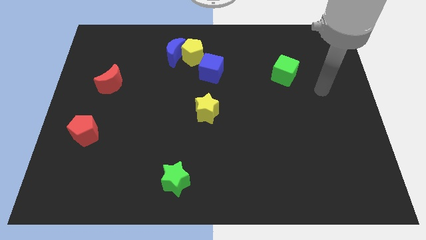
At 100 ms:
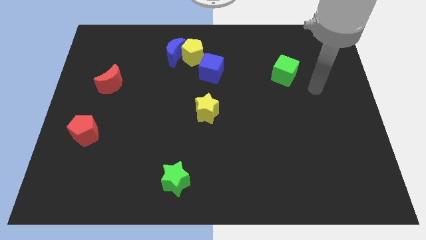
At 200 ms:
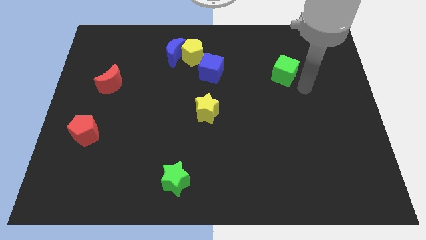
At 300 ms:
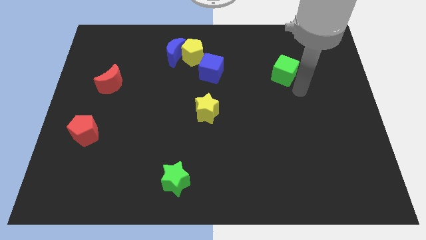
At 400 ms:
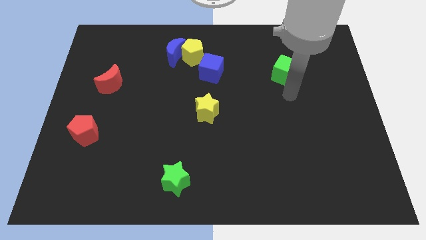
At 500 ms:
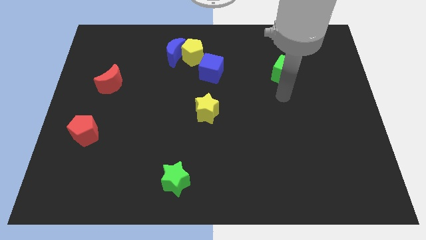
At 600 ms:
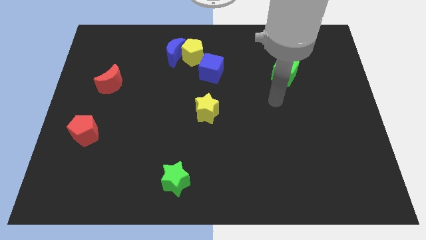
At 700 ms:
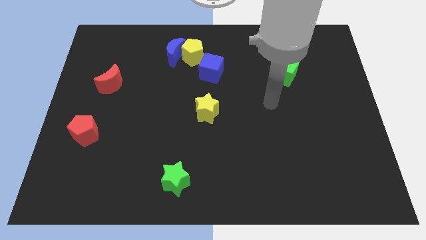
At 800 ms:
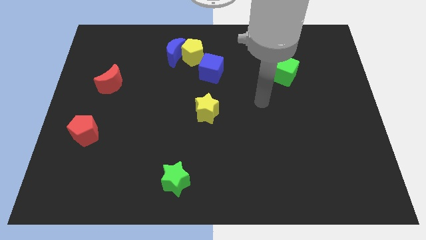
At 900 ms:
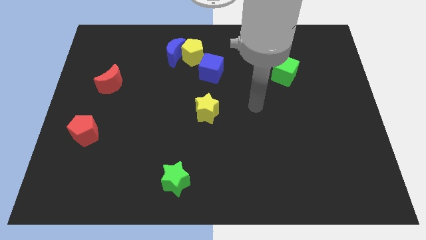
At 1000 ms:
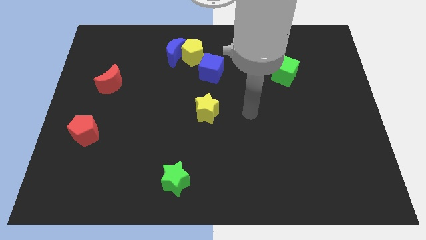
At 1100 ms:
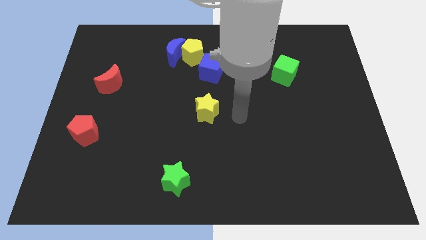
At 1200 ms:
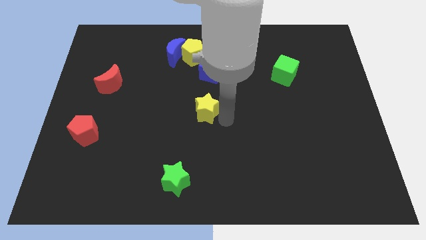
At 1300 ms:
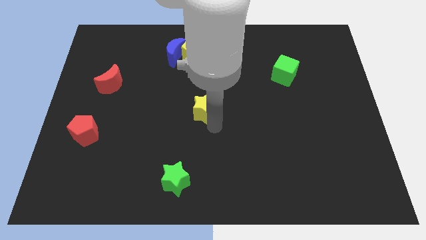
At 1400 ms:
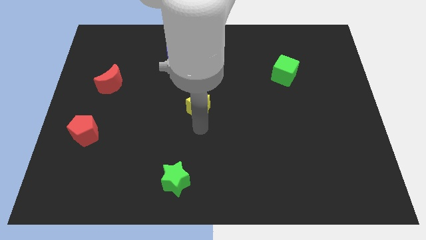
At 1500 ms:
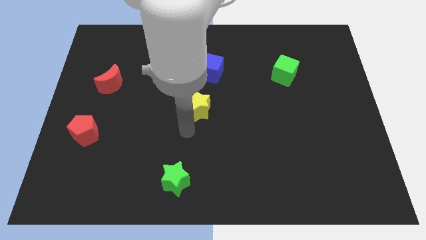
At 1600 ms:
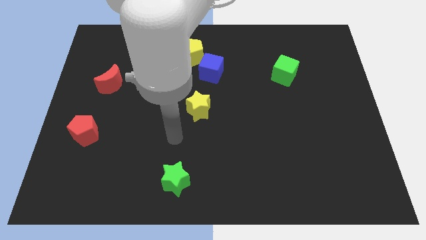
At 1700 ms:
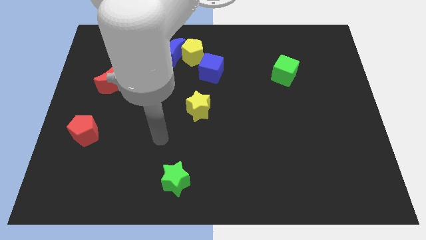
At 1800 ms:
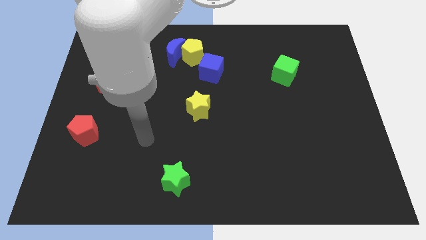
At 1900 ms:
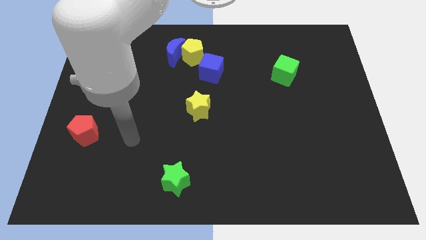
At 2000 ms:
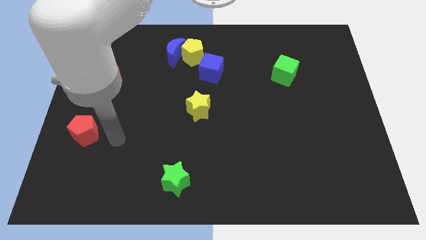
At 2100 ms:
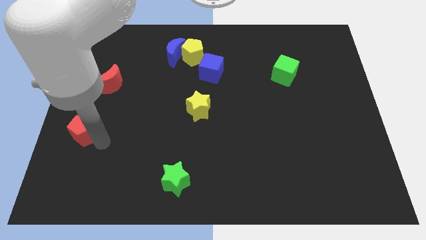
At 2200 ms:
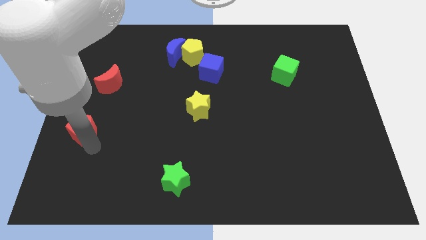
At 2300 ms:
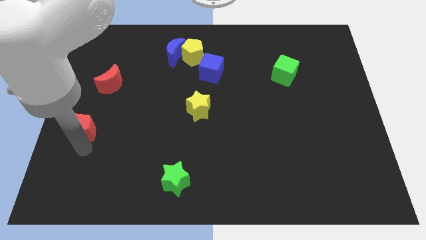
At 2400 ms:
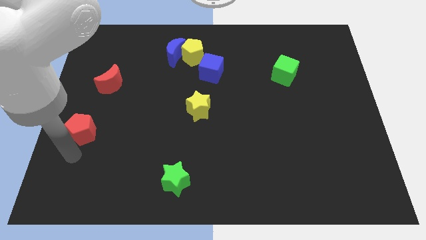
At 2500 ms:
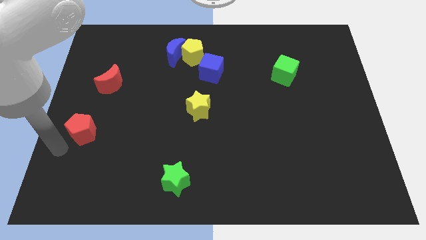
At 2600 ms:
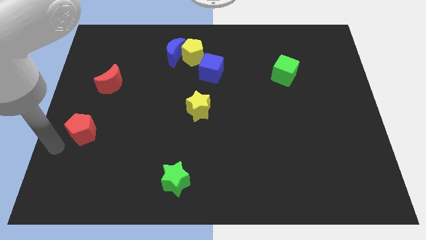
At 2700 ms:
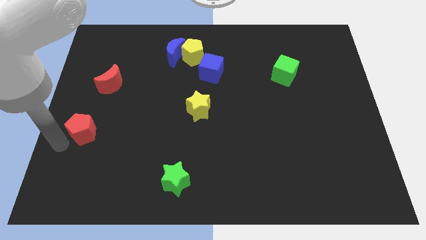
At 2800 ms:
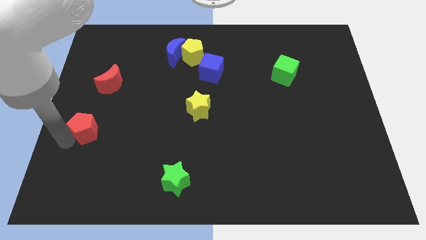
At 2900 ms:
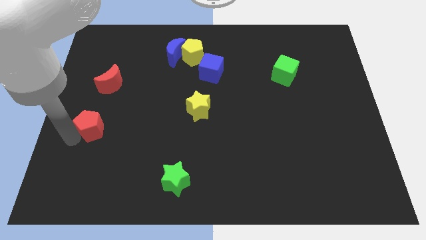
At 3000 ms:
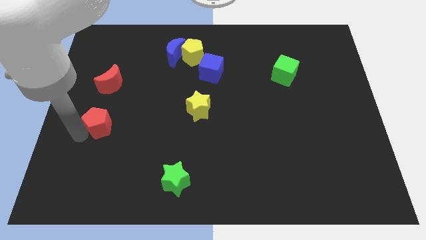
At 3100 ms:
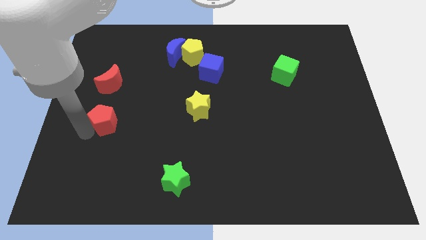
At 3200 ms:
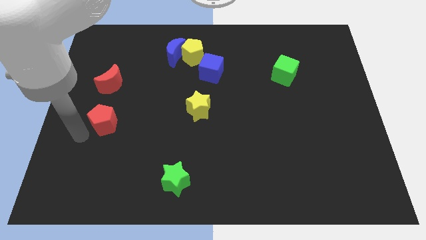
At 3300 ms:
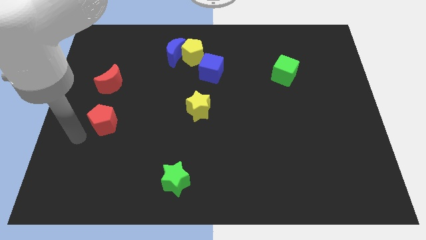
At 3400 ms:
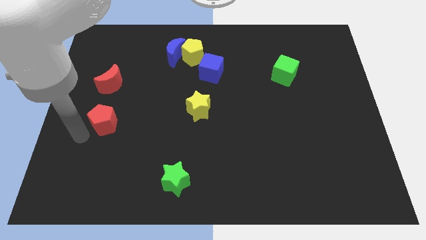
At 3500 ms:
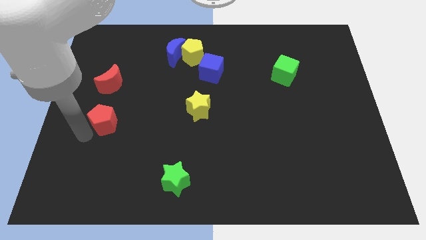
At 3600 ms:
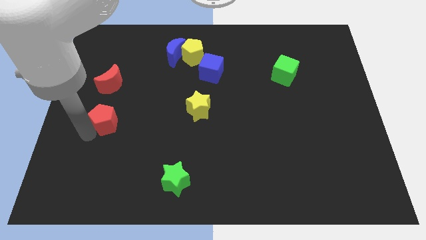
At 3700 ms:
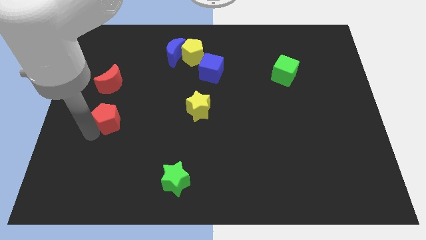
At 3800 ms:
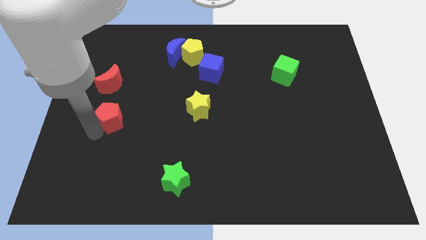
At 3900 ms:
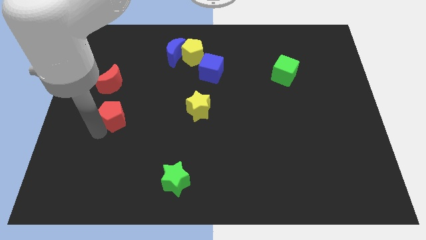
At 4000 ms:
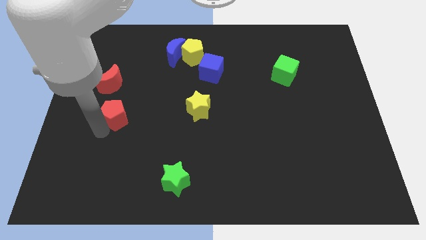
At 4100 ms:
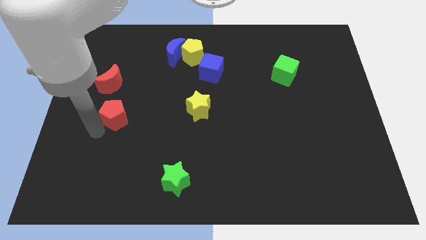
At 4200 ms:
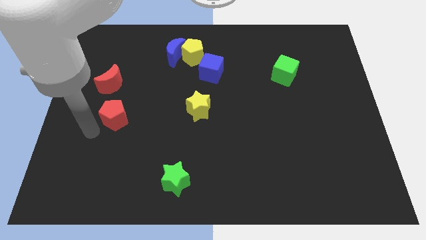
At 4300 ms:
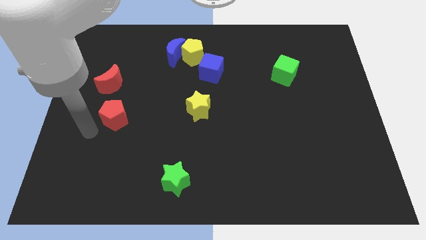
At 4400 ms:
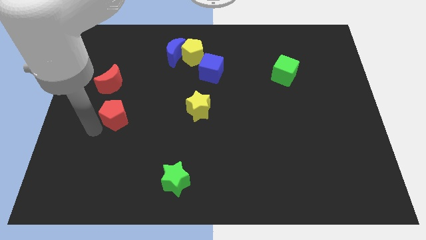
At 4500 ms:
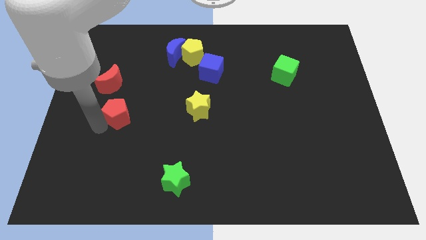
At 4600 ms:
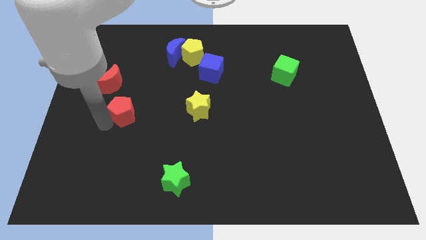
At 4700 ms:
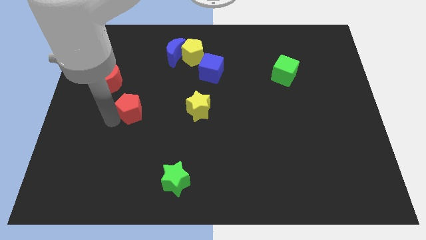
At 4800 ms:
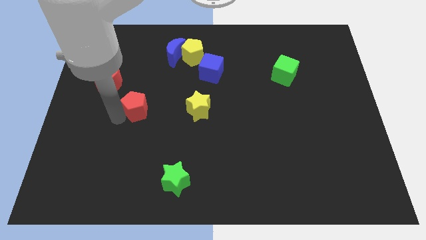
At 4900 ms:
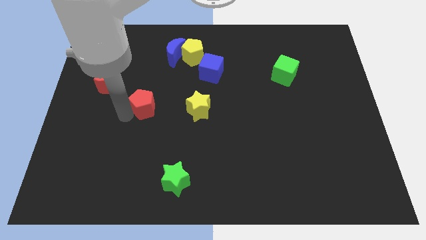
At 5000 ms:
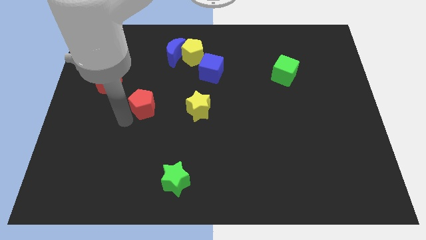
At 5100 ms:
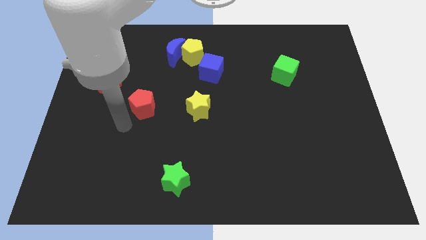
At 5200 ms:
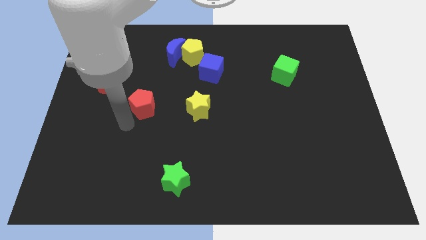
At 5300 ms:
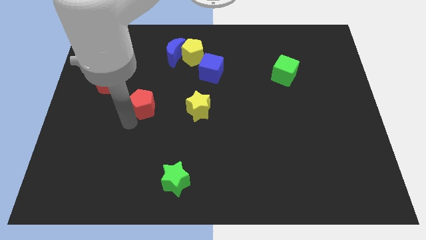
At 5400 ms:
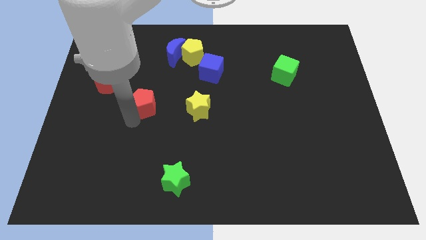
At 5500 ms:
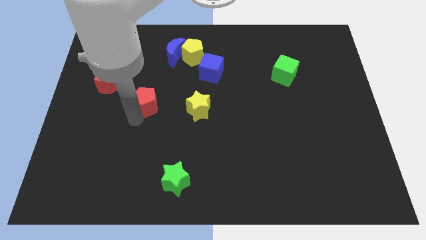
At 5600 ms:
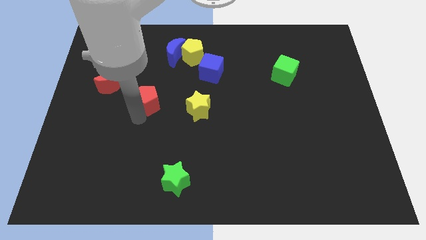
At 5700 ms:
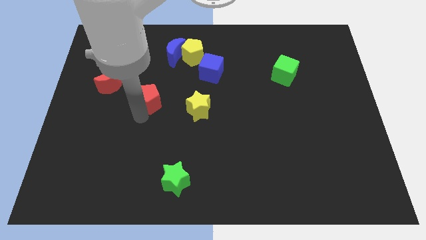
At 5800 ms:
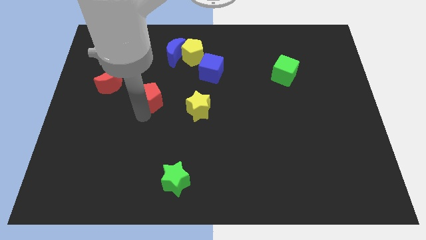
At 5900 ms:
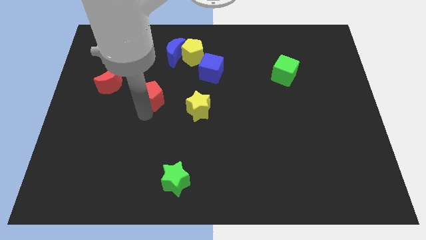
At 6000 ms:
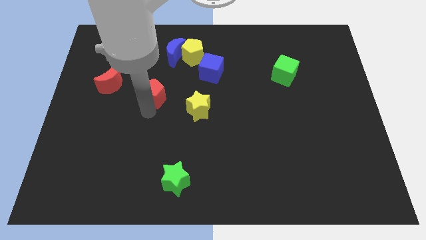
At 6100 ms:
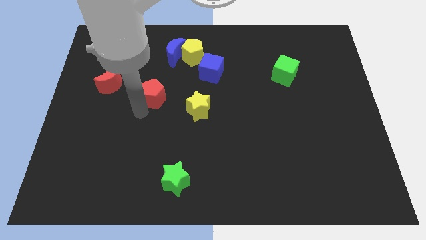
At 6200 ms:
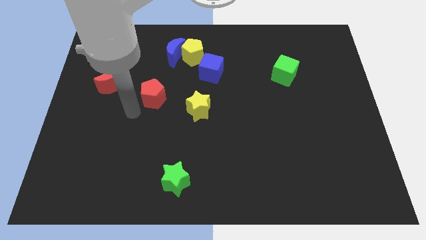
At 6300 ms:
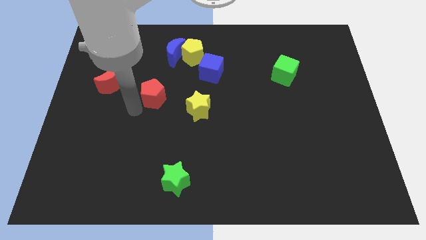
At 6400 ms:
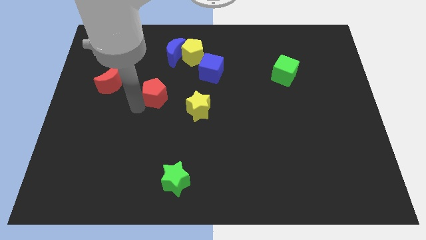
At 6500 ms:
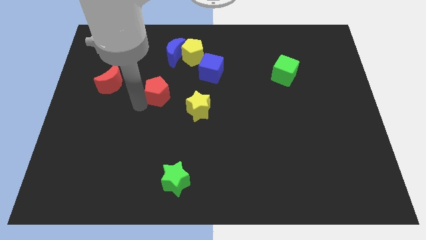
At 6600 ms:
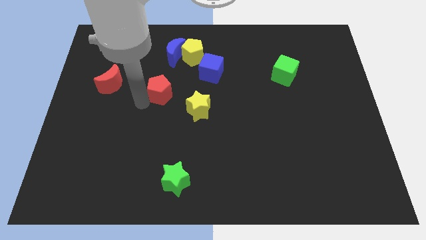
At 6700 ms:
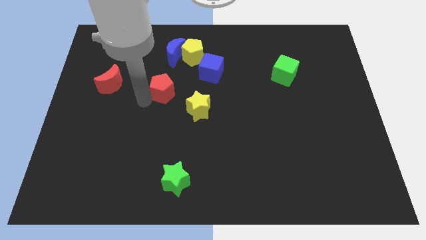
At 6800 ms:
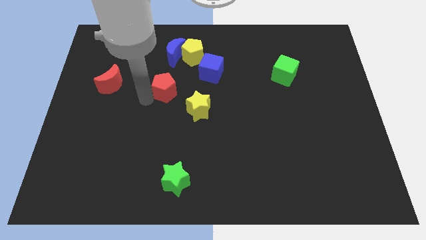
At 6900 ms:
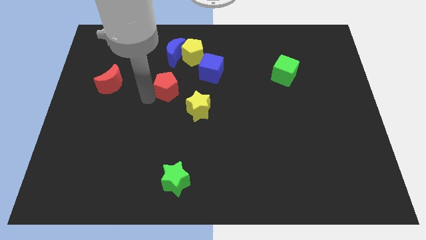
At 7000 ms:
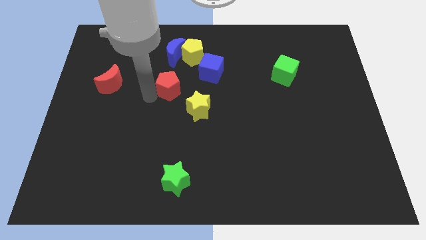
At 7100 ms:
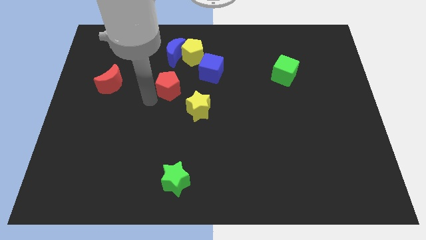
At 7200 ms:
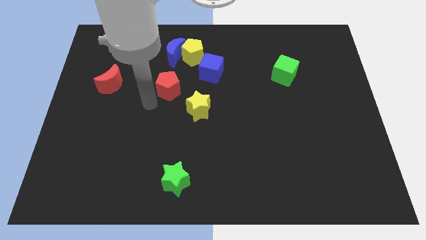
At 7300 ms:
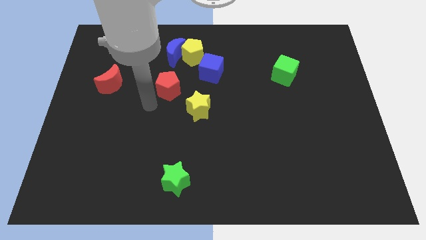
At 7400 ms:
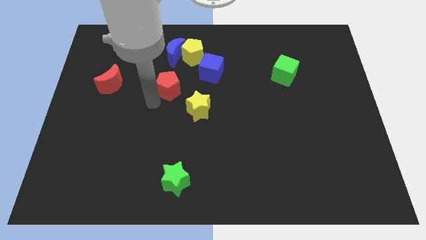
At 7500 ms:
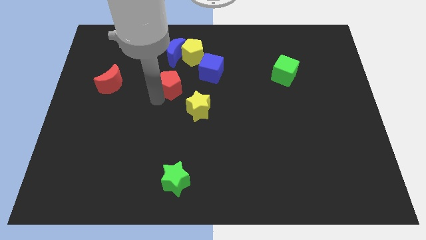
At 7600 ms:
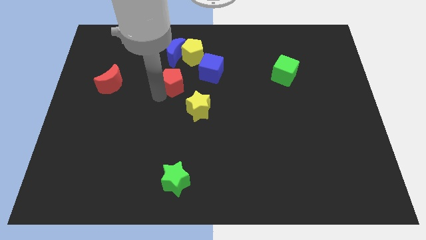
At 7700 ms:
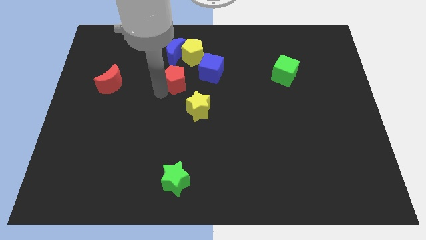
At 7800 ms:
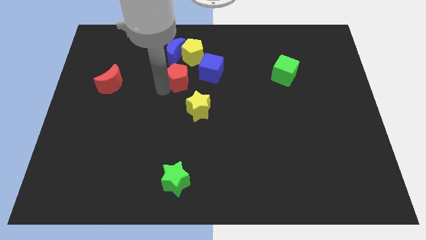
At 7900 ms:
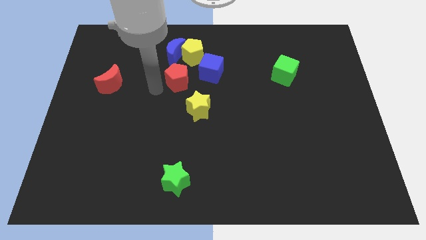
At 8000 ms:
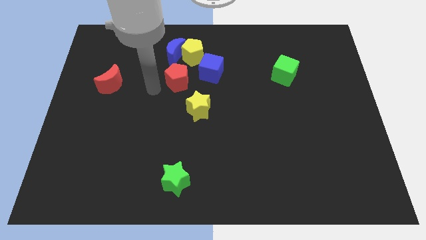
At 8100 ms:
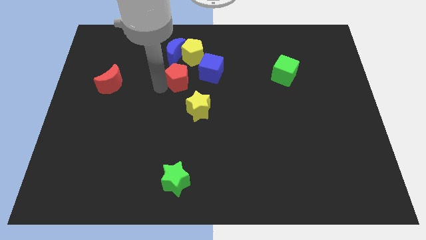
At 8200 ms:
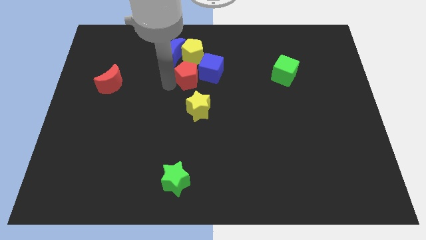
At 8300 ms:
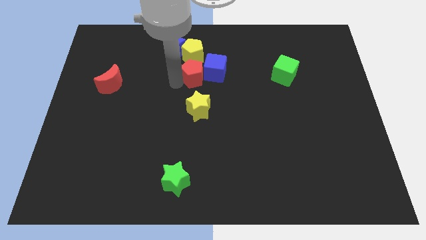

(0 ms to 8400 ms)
move the red pentagon next to the blue cube
